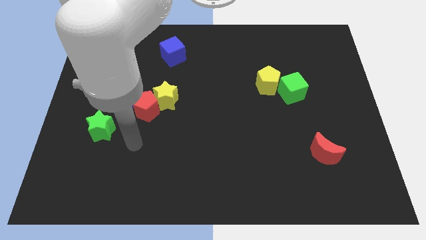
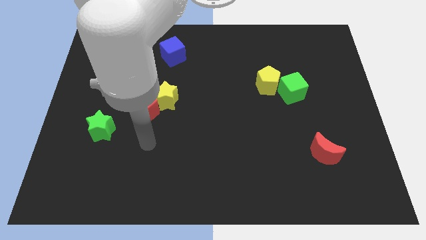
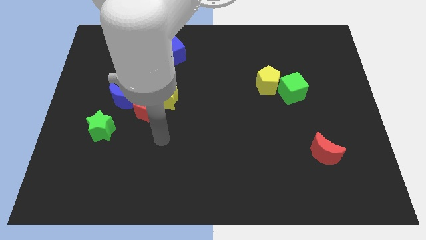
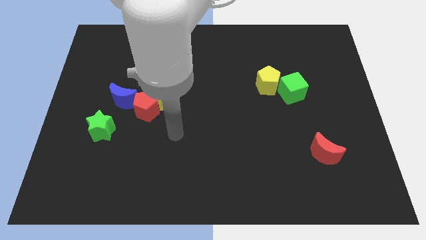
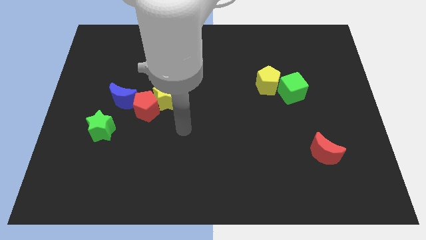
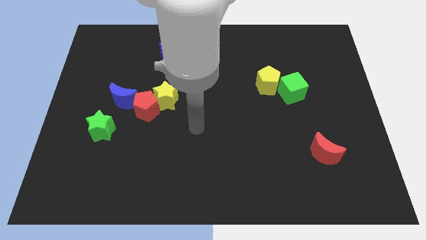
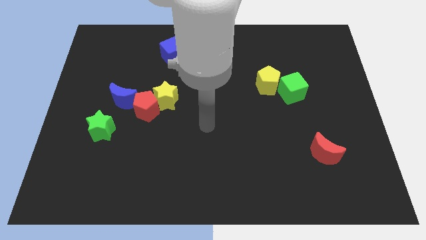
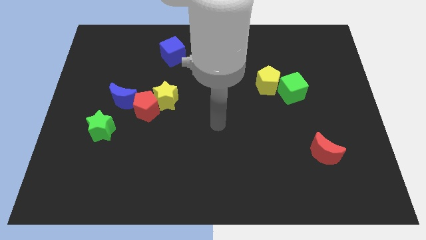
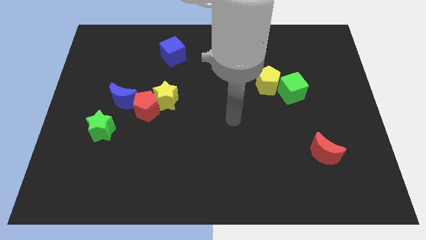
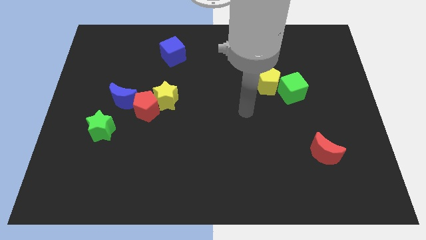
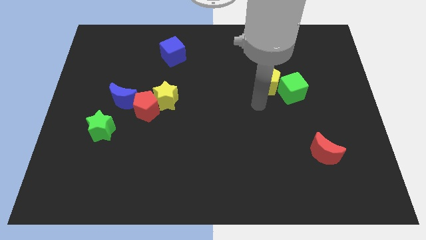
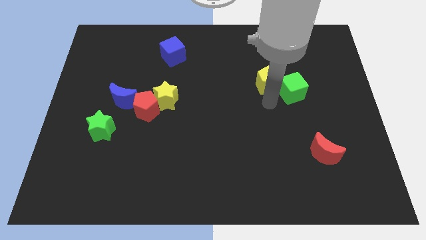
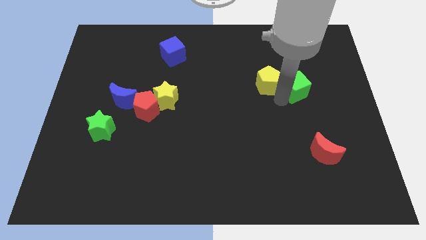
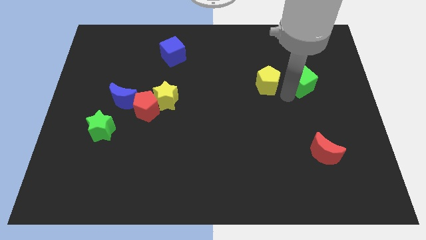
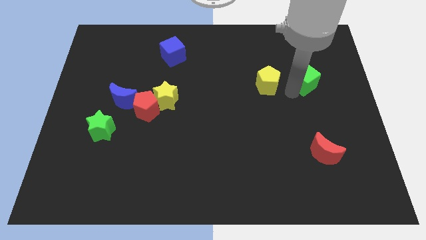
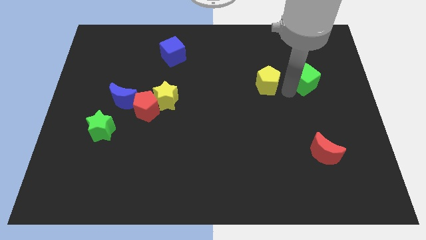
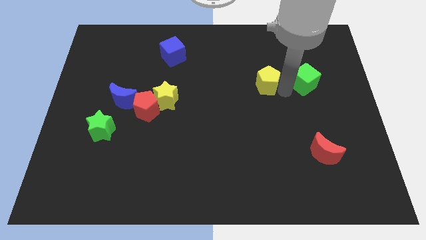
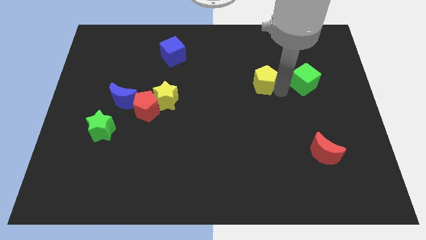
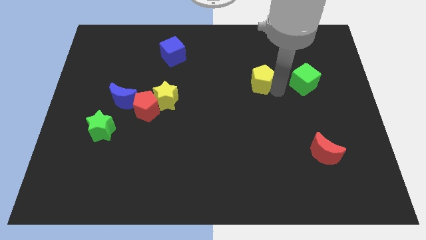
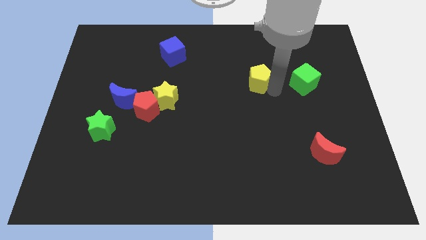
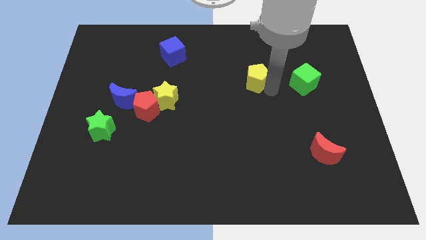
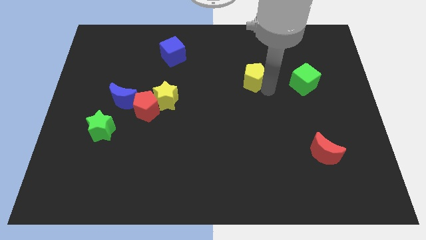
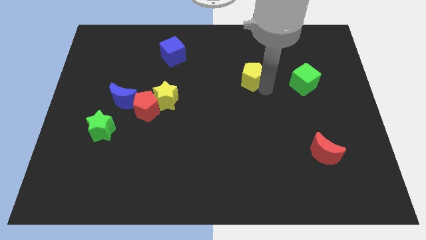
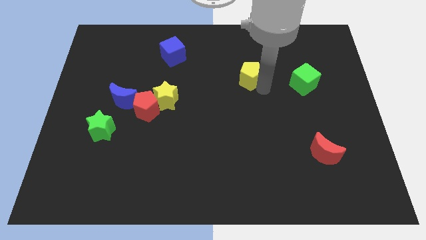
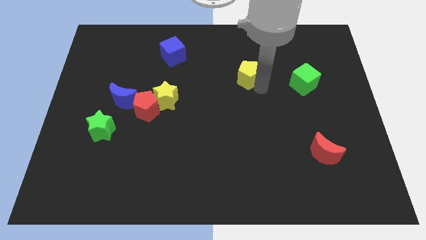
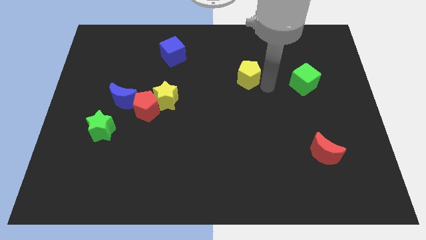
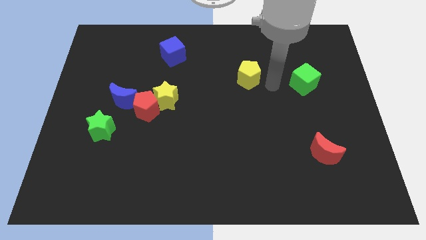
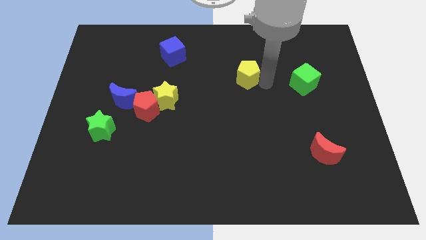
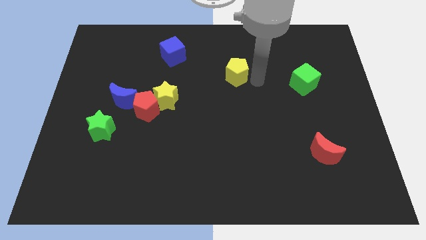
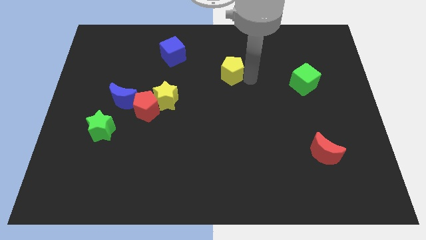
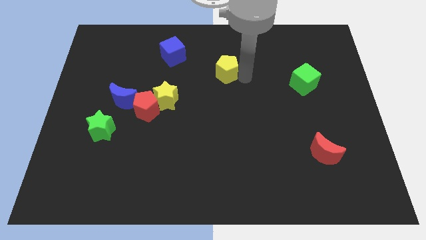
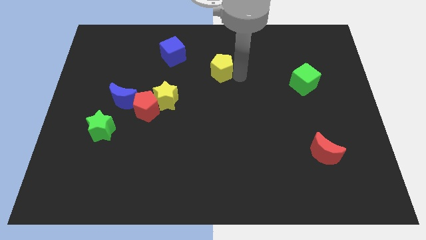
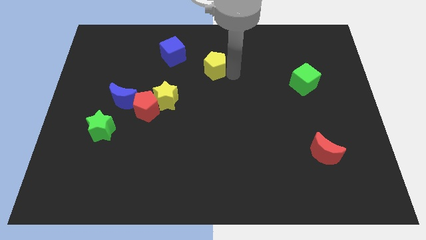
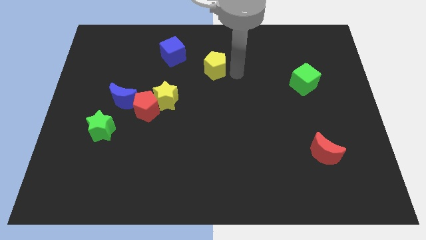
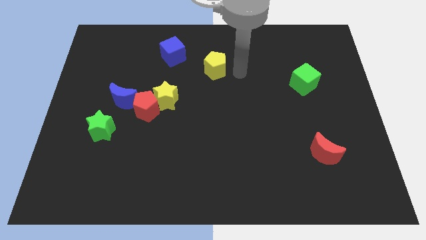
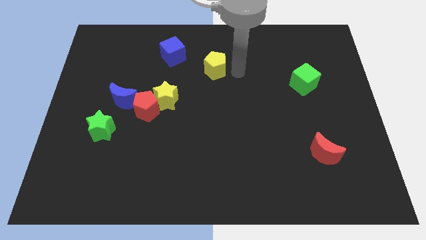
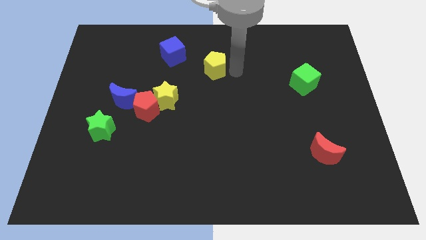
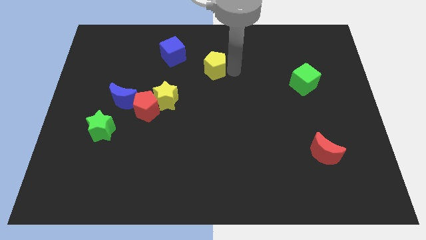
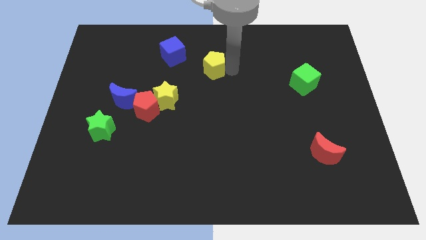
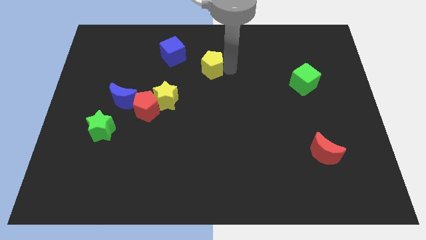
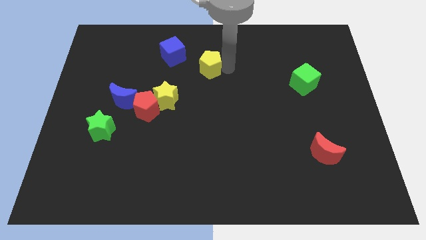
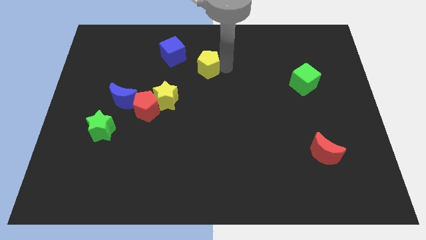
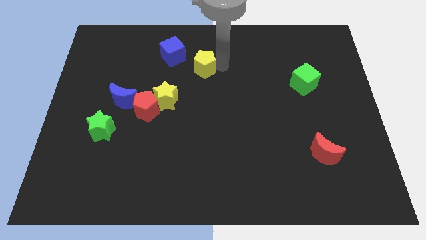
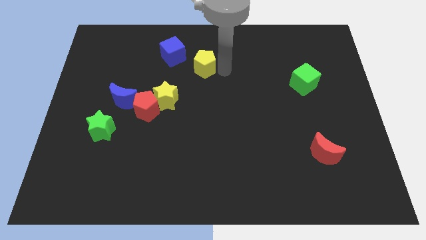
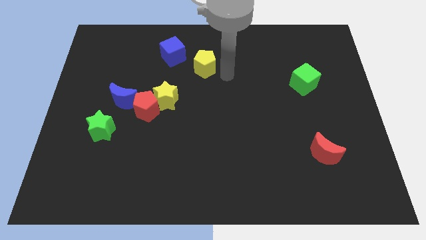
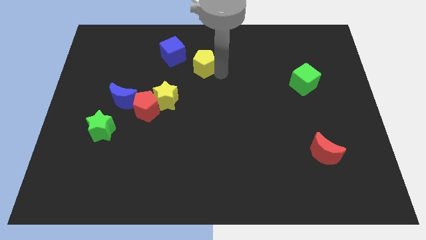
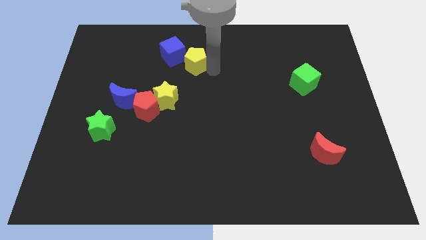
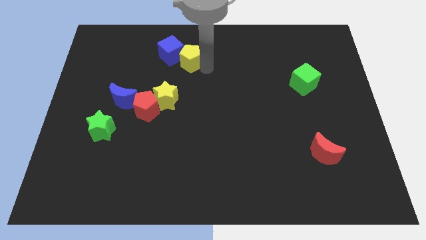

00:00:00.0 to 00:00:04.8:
push the yellow pentagon next to the blue cube

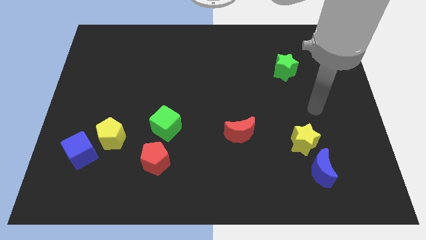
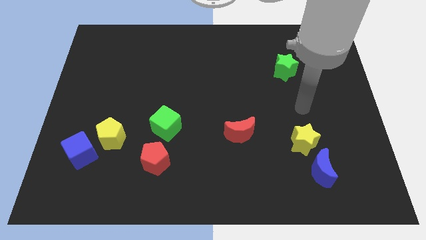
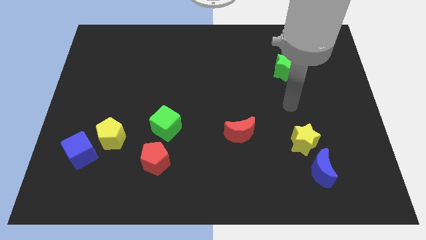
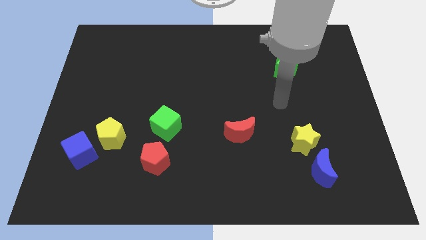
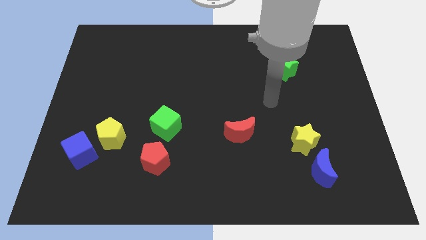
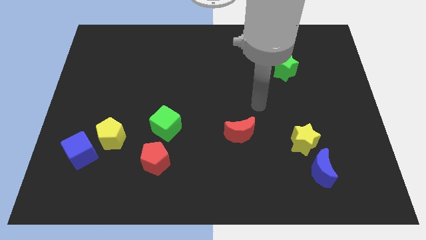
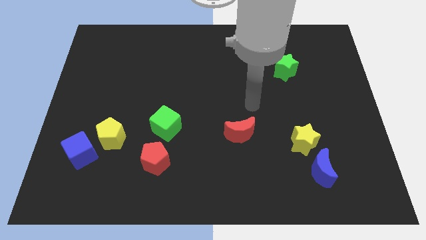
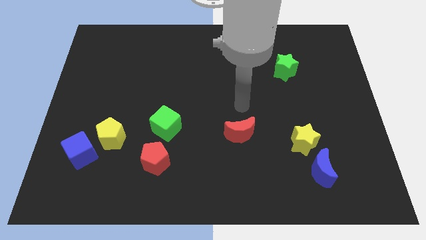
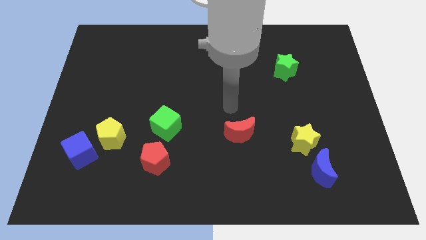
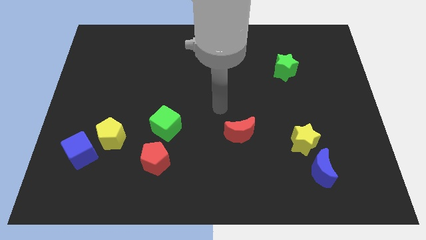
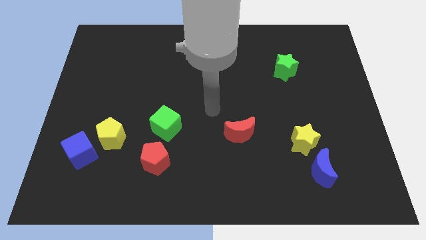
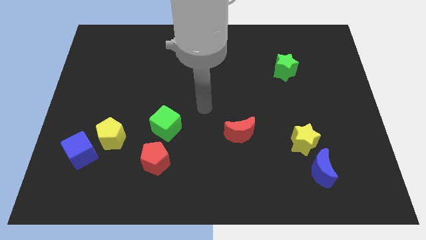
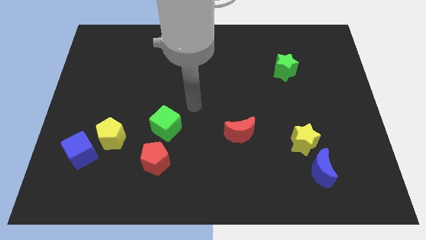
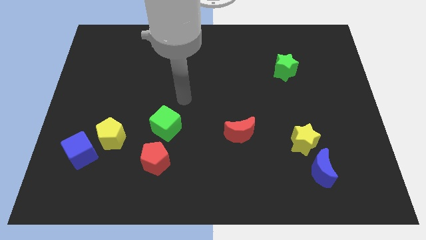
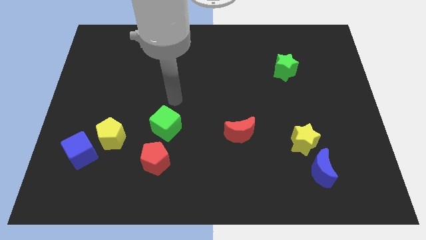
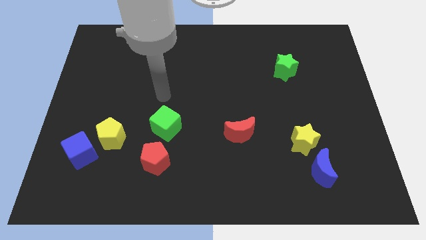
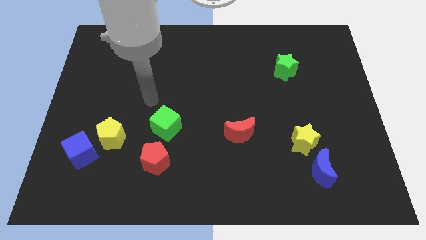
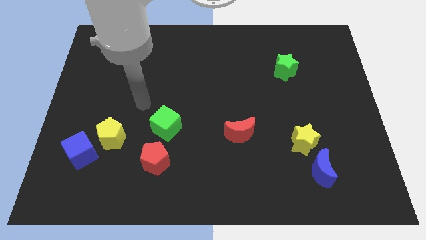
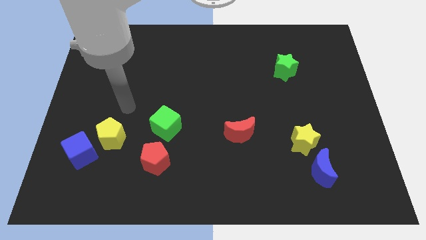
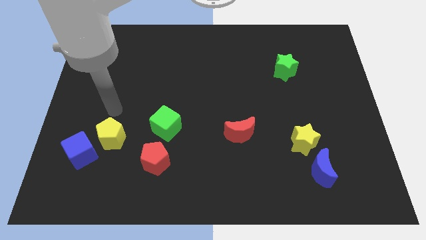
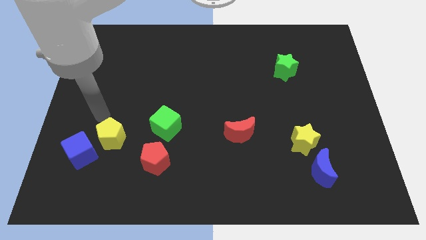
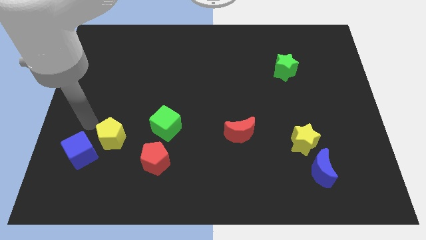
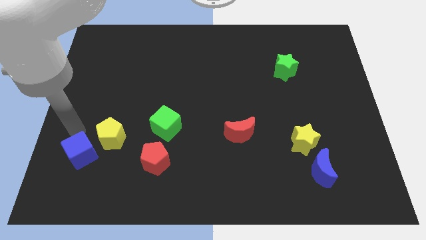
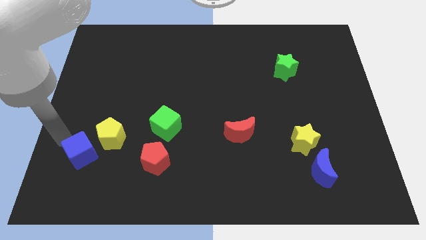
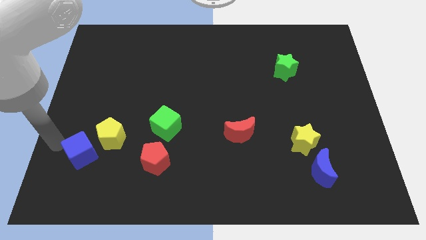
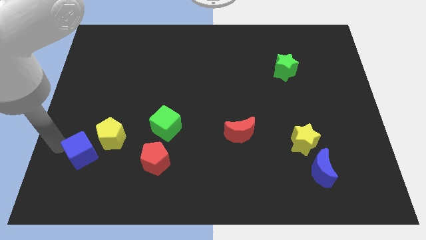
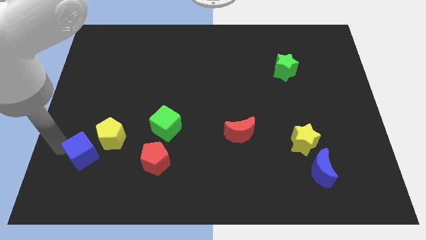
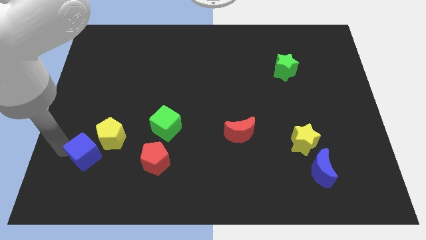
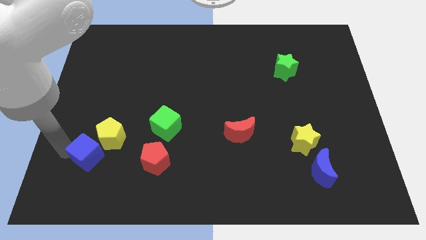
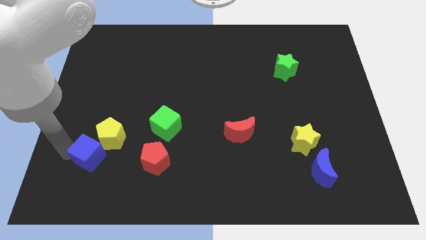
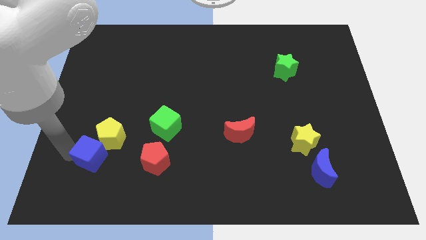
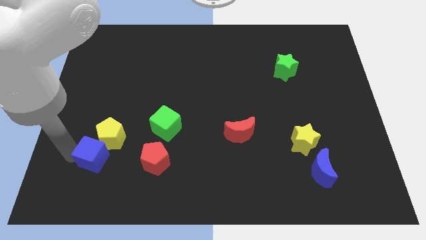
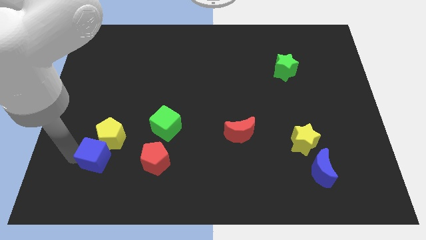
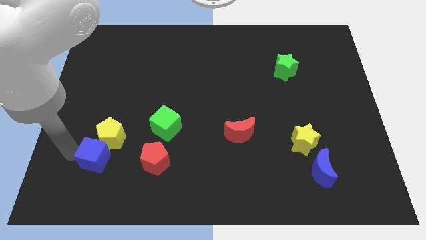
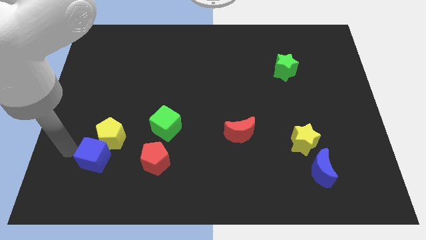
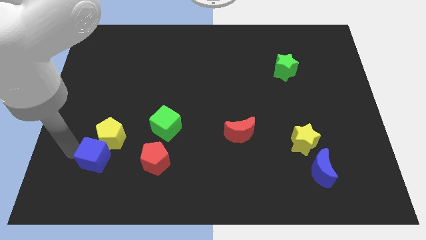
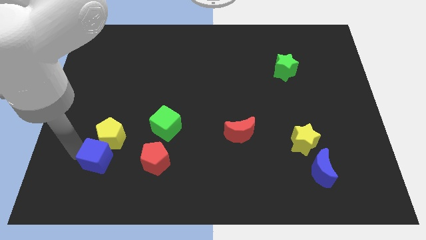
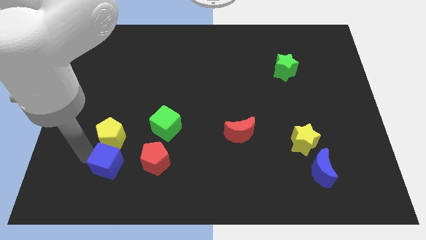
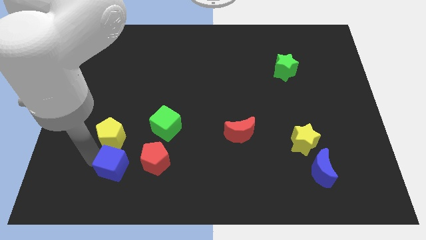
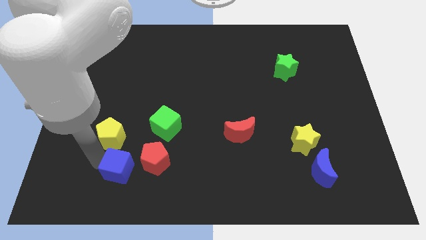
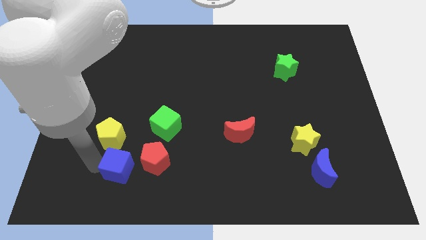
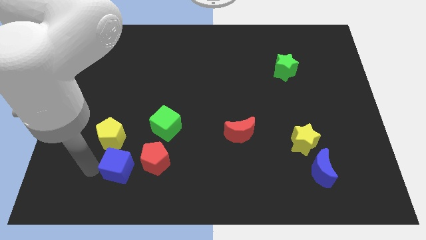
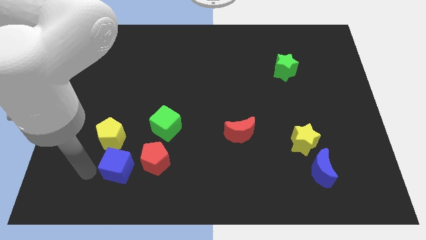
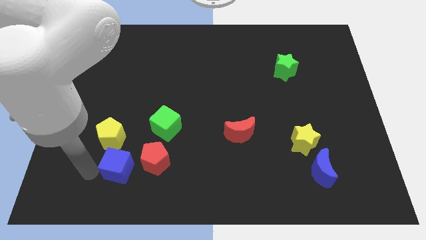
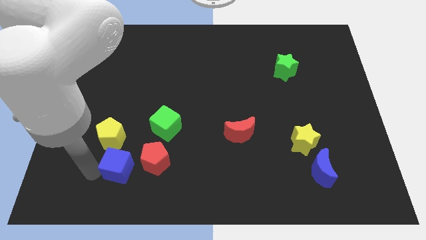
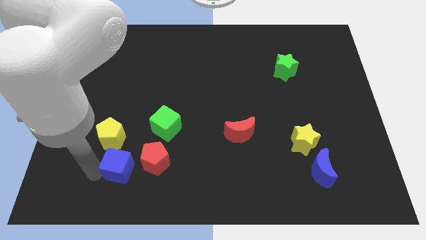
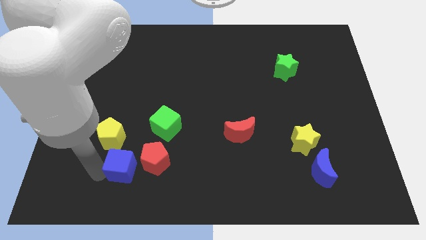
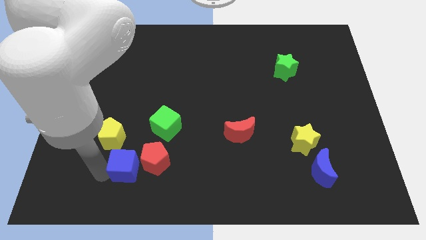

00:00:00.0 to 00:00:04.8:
slide the blue cube towards the red pentagon
